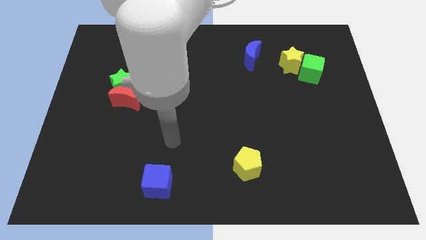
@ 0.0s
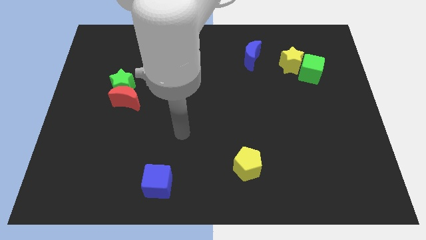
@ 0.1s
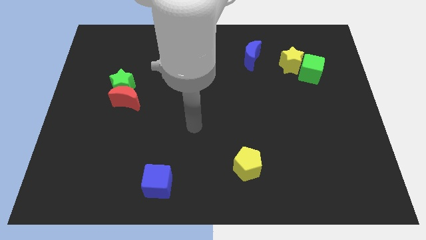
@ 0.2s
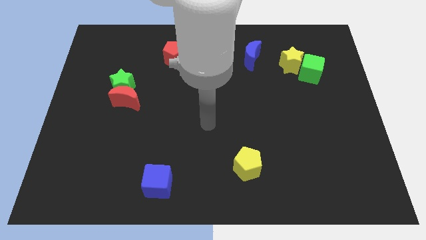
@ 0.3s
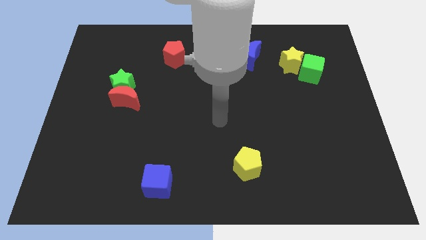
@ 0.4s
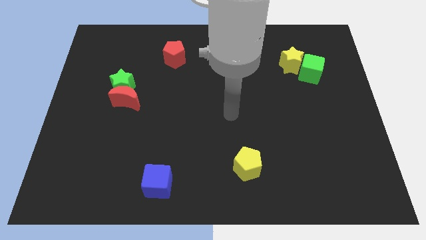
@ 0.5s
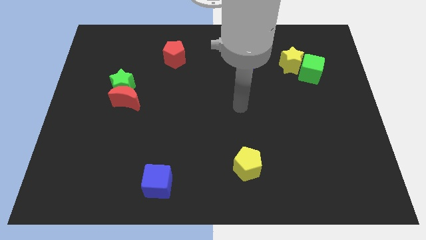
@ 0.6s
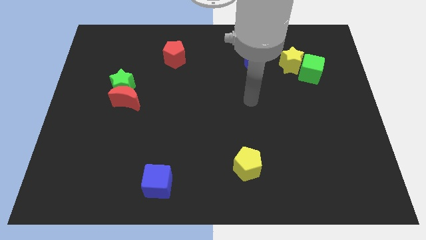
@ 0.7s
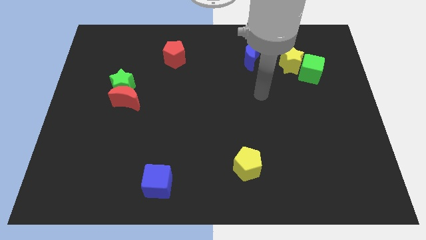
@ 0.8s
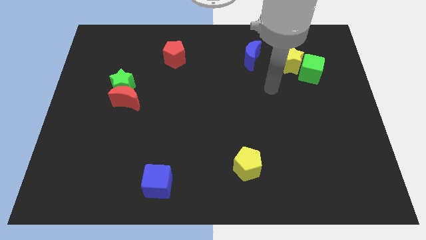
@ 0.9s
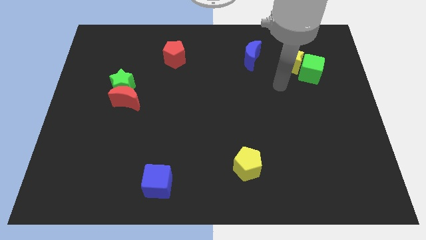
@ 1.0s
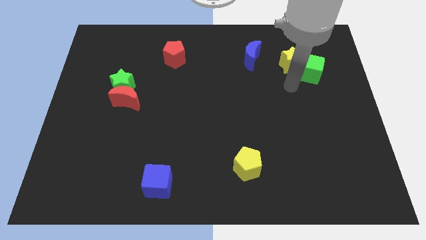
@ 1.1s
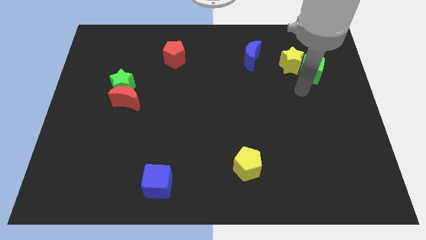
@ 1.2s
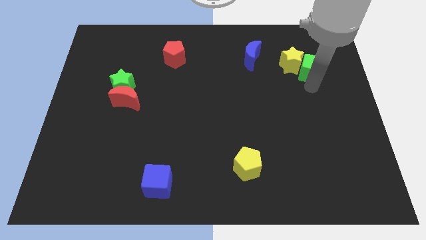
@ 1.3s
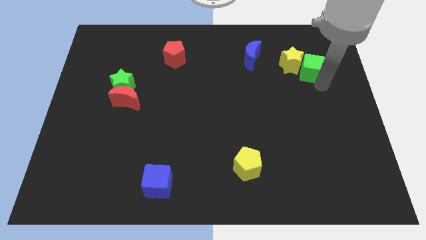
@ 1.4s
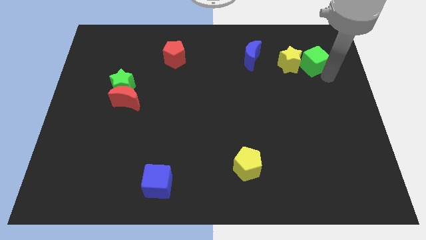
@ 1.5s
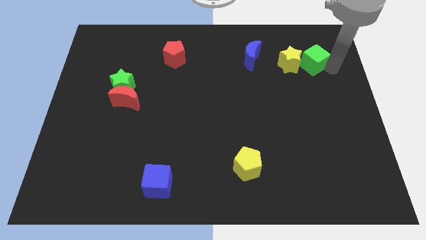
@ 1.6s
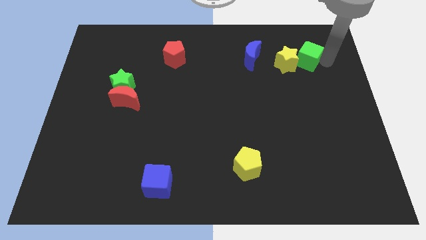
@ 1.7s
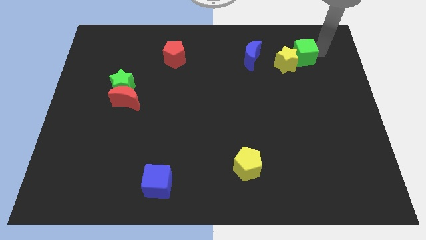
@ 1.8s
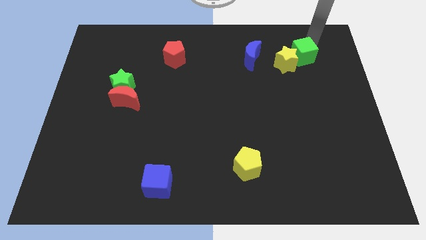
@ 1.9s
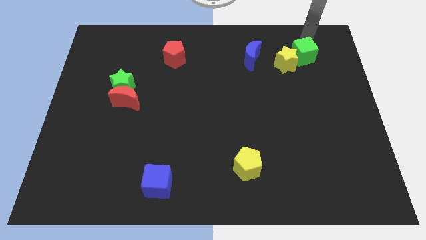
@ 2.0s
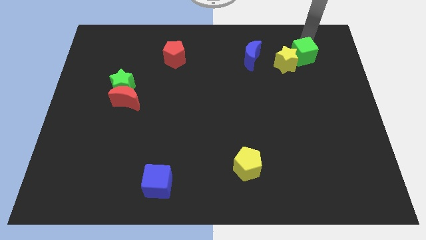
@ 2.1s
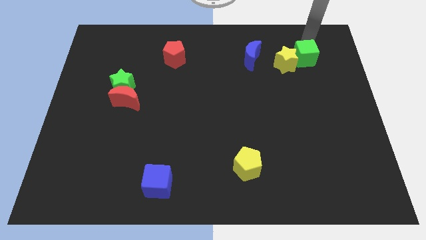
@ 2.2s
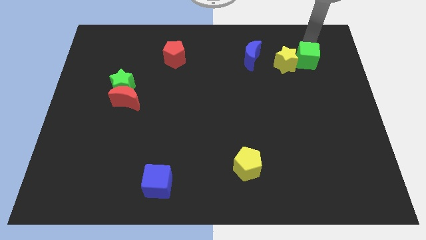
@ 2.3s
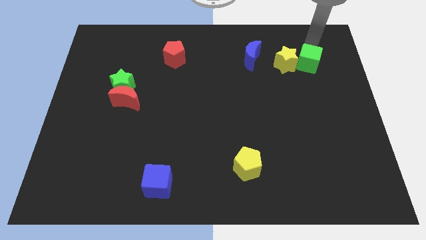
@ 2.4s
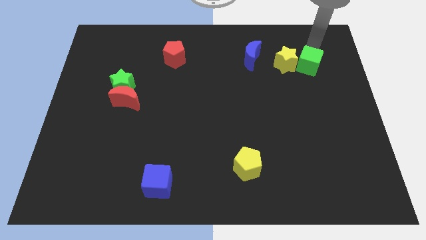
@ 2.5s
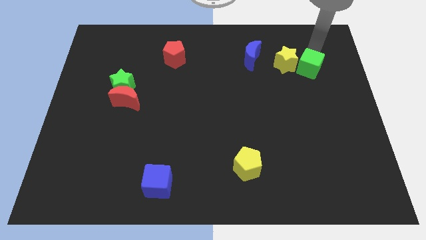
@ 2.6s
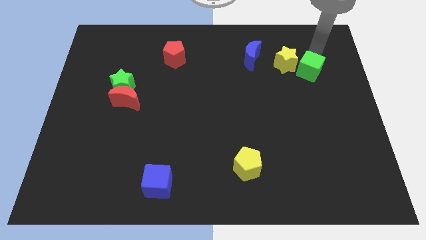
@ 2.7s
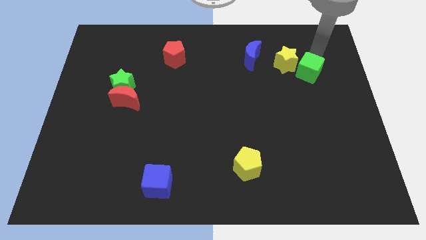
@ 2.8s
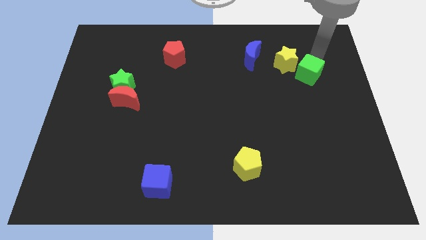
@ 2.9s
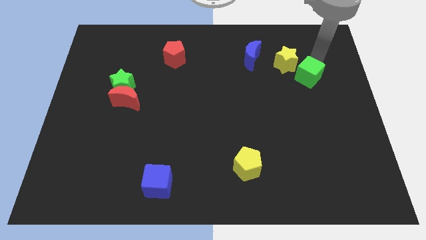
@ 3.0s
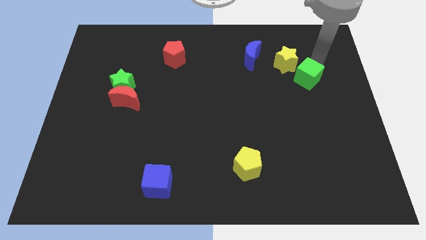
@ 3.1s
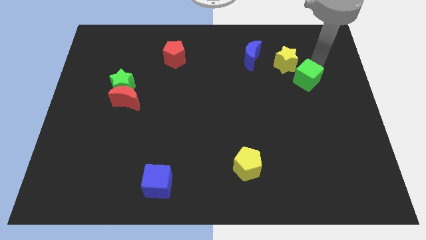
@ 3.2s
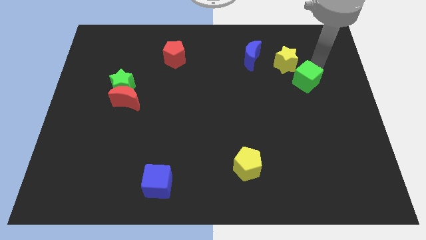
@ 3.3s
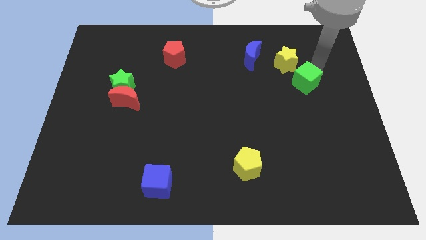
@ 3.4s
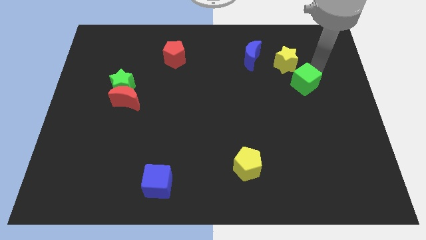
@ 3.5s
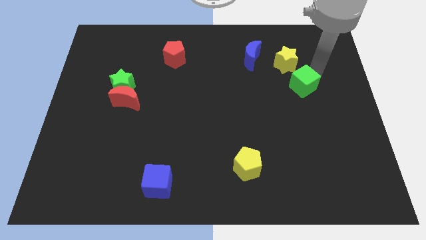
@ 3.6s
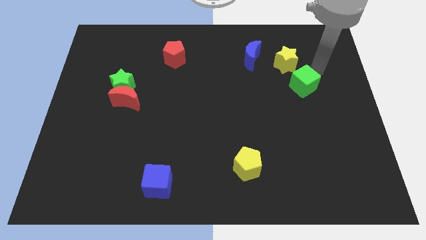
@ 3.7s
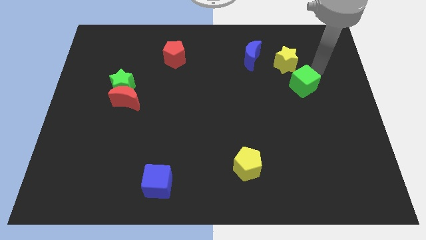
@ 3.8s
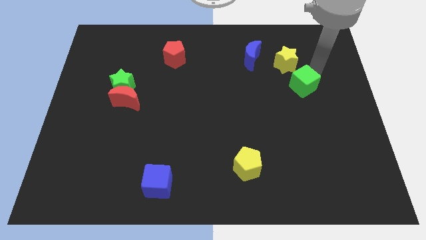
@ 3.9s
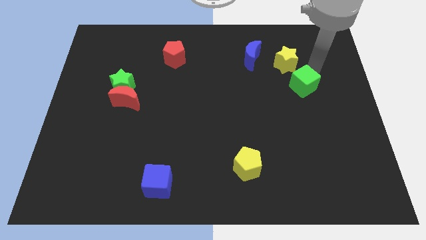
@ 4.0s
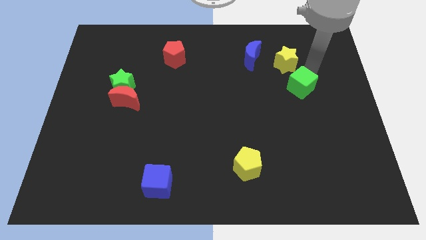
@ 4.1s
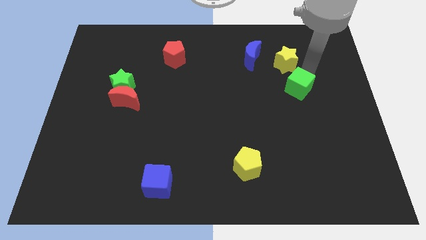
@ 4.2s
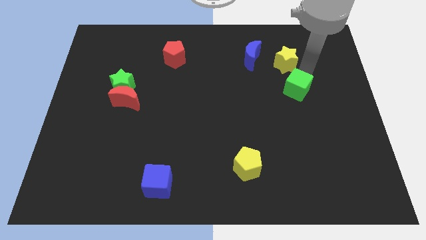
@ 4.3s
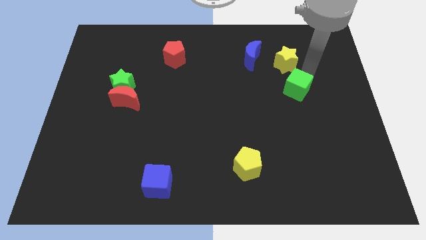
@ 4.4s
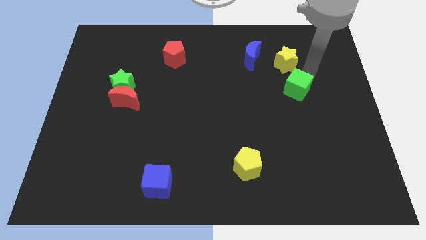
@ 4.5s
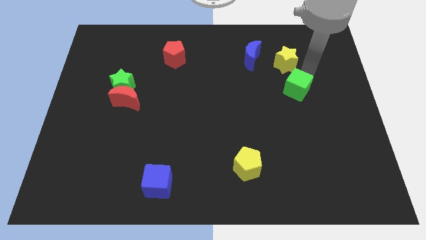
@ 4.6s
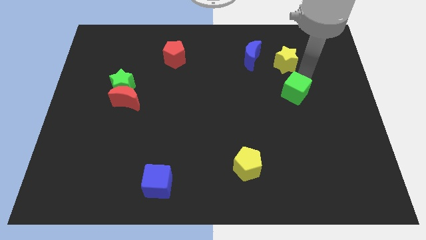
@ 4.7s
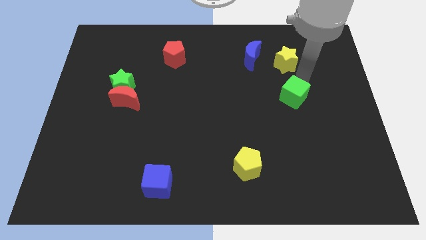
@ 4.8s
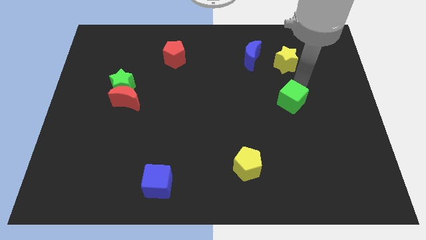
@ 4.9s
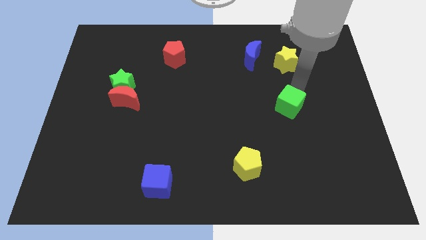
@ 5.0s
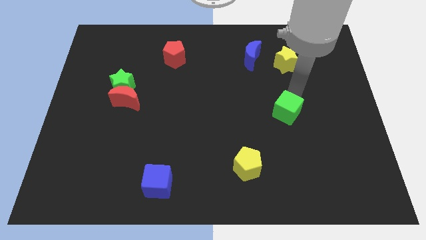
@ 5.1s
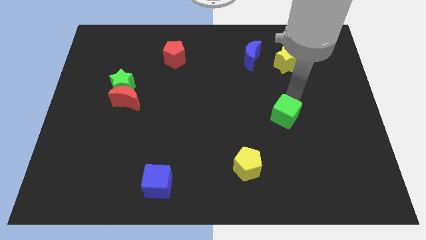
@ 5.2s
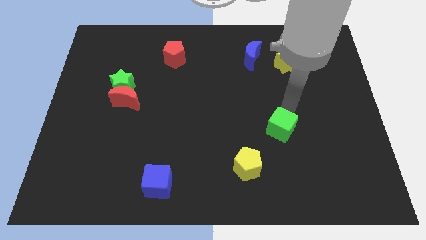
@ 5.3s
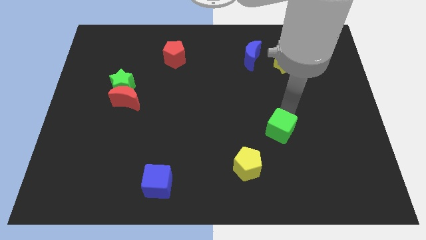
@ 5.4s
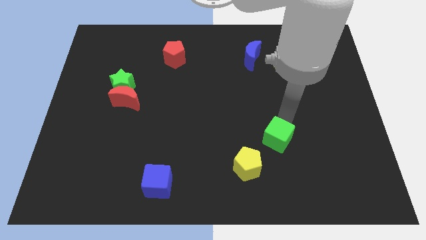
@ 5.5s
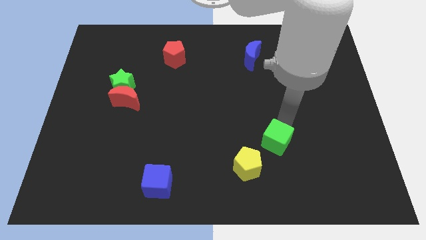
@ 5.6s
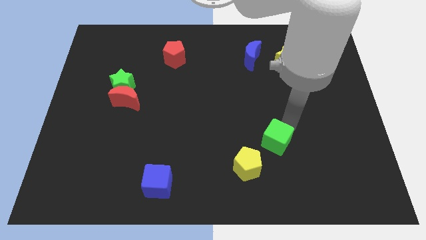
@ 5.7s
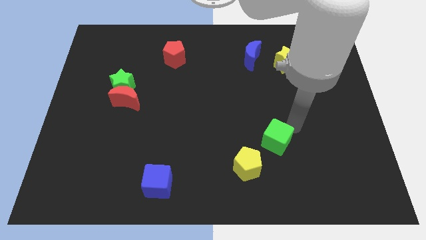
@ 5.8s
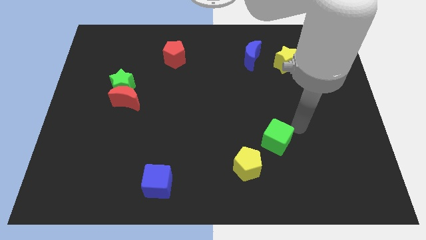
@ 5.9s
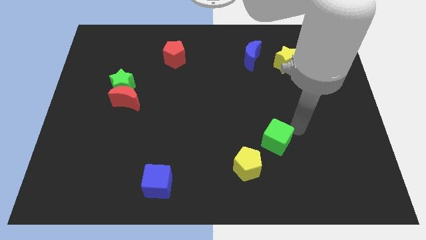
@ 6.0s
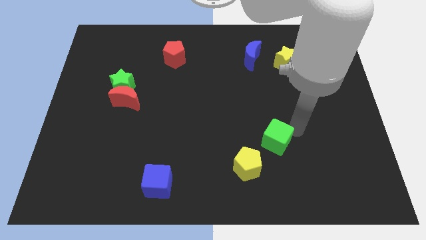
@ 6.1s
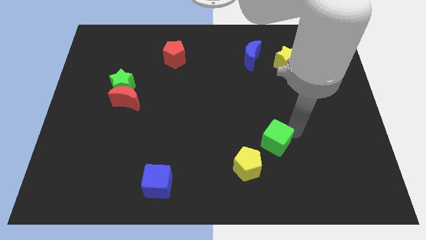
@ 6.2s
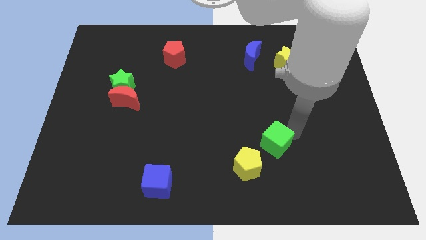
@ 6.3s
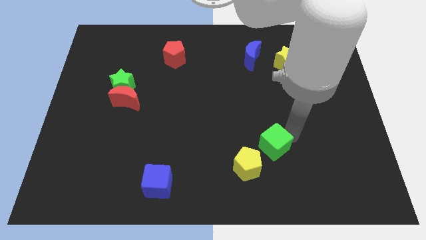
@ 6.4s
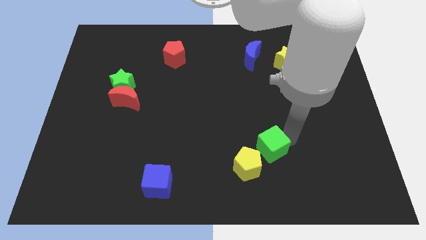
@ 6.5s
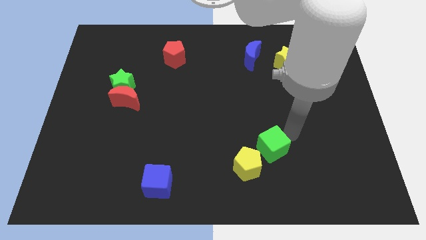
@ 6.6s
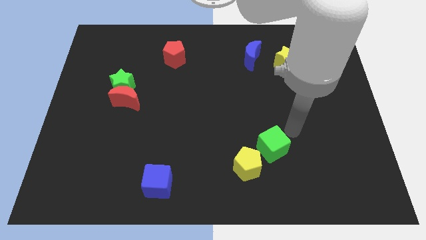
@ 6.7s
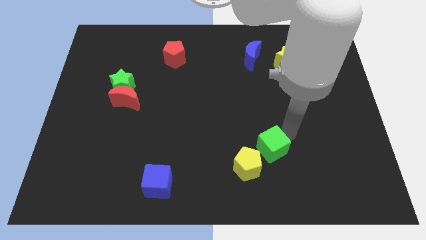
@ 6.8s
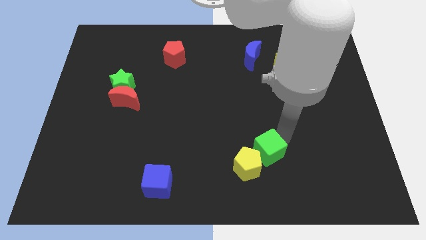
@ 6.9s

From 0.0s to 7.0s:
move the green cube towards the yellow pentagon
